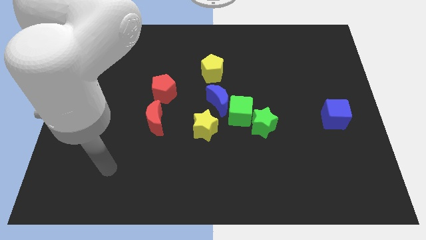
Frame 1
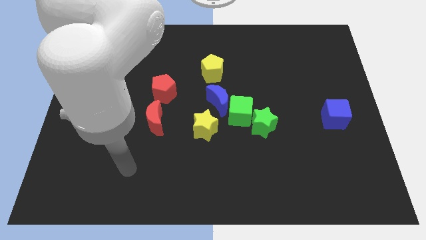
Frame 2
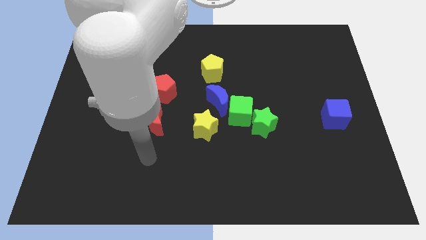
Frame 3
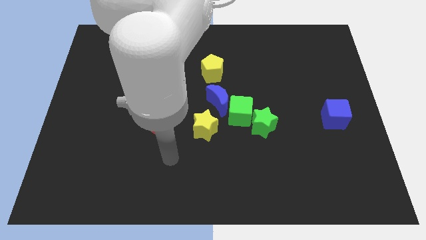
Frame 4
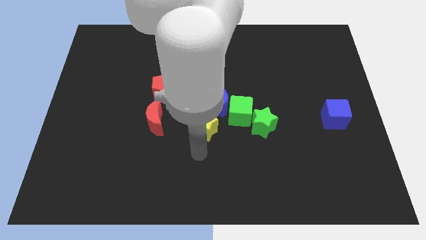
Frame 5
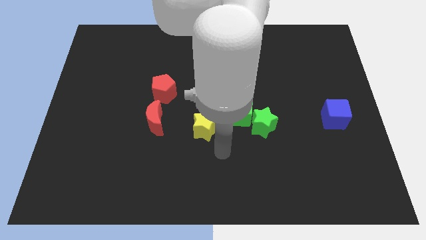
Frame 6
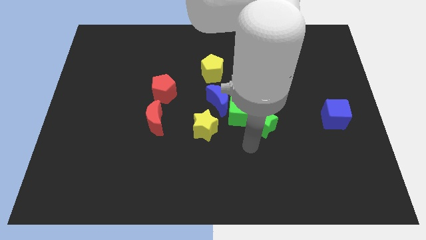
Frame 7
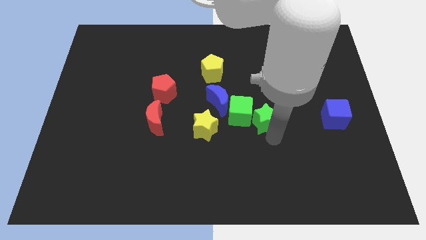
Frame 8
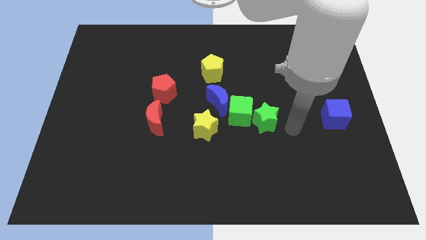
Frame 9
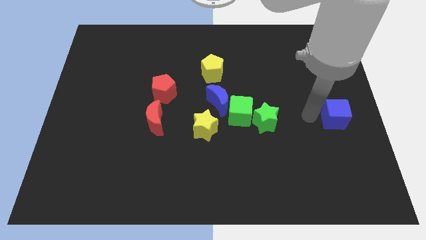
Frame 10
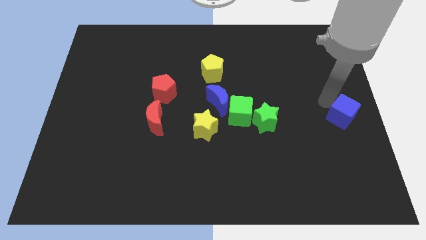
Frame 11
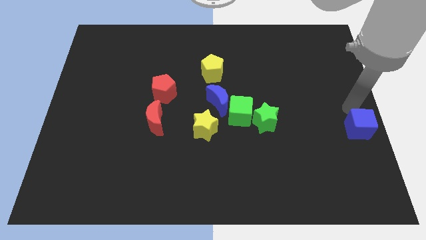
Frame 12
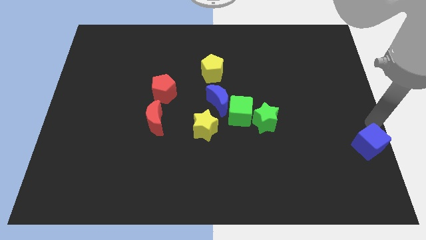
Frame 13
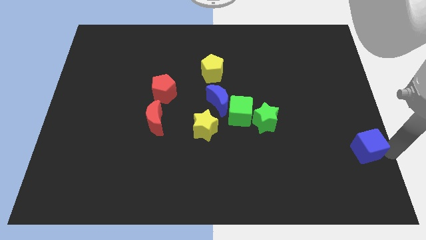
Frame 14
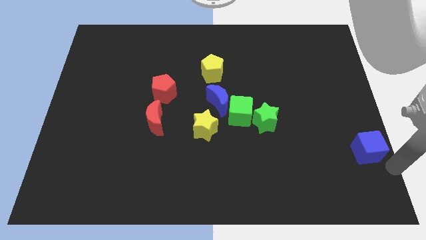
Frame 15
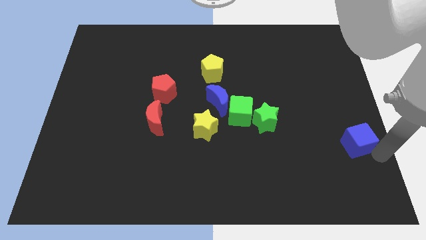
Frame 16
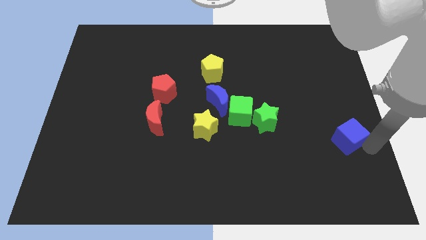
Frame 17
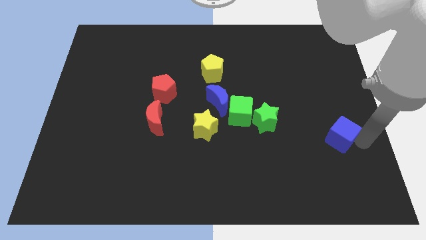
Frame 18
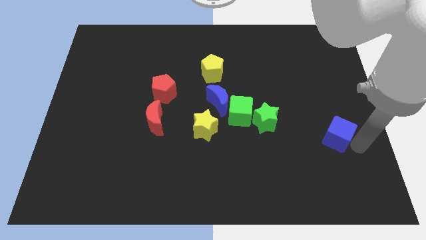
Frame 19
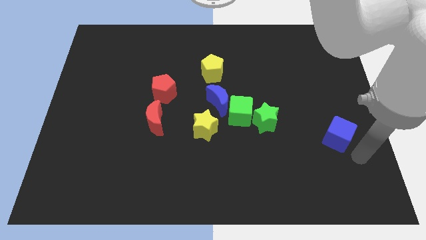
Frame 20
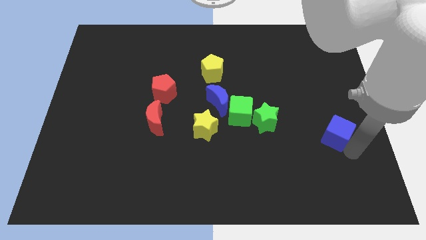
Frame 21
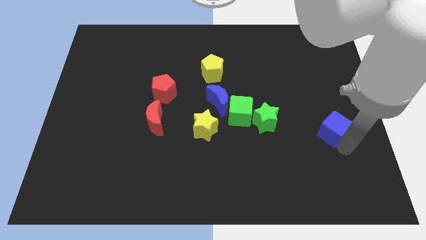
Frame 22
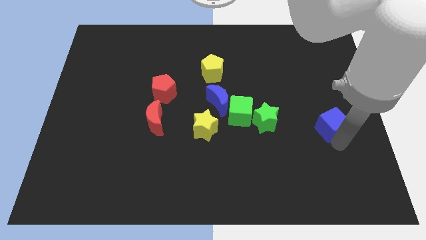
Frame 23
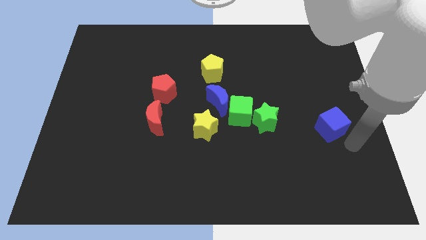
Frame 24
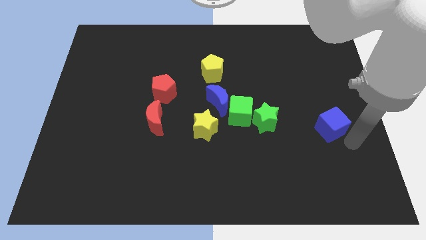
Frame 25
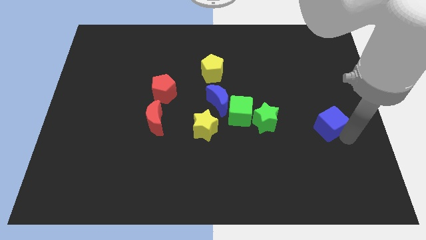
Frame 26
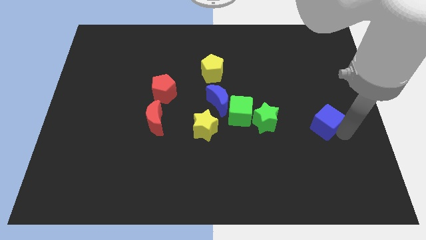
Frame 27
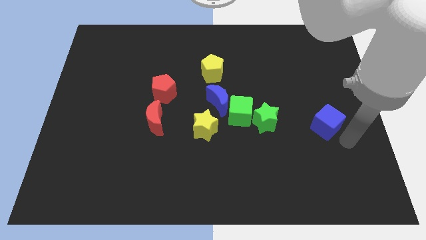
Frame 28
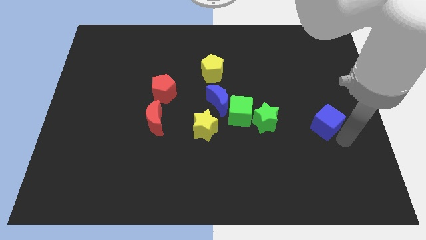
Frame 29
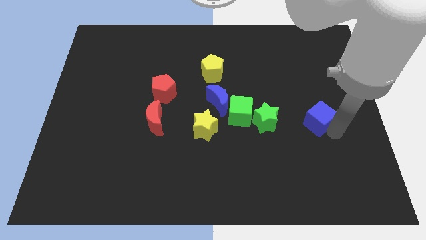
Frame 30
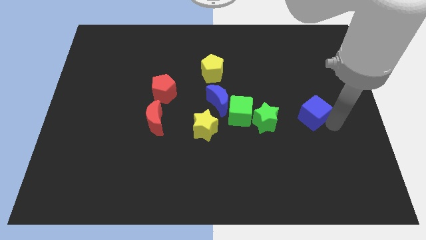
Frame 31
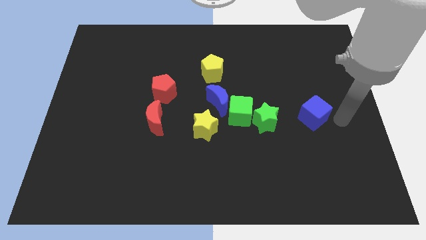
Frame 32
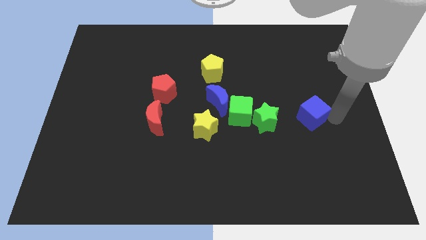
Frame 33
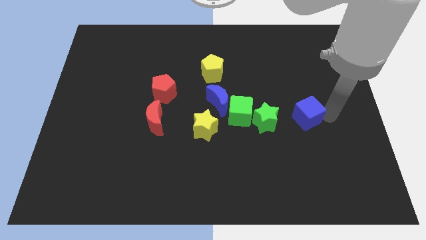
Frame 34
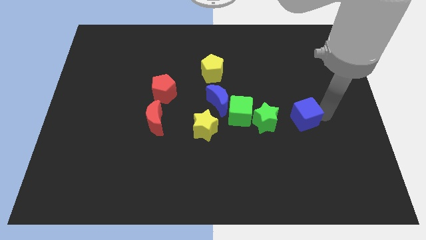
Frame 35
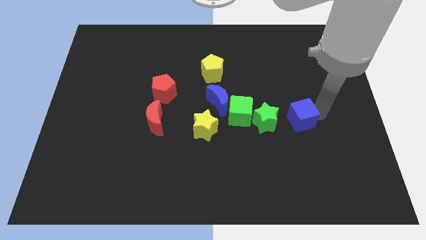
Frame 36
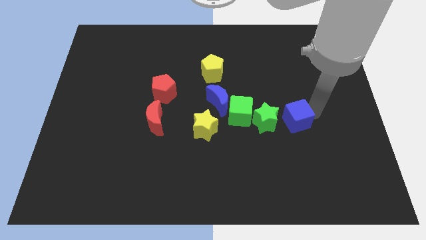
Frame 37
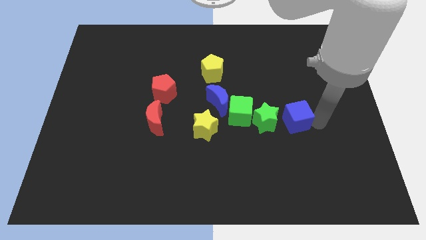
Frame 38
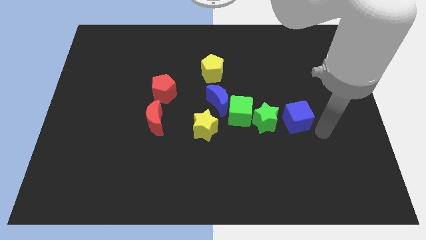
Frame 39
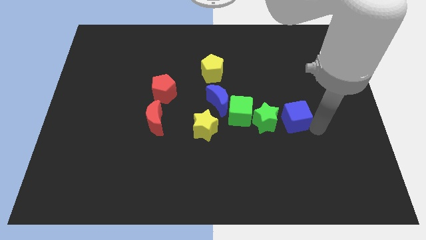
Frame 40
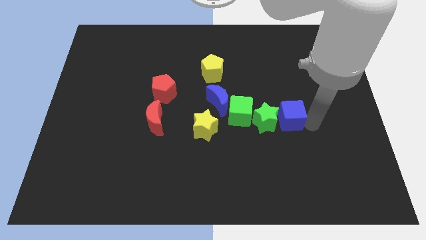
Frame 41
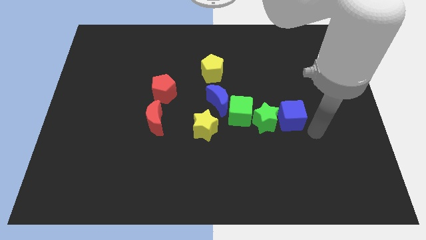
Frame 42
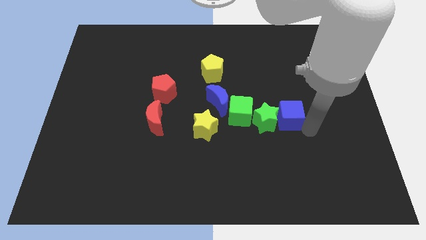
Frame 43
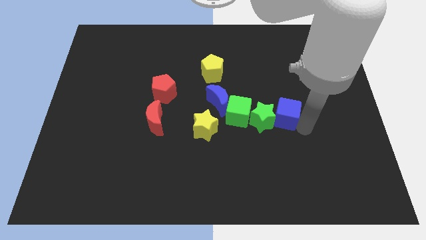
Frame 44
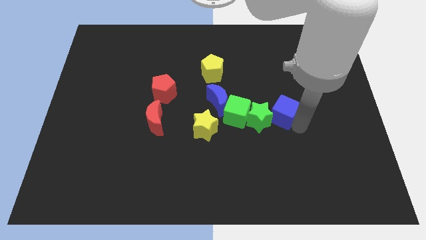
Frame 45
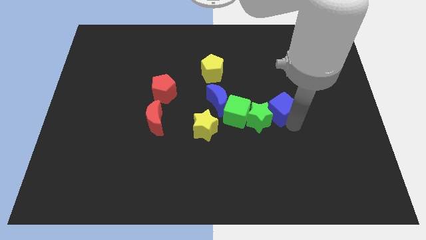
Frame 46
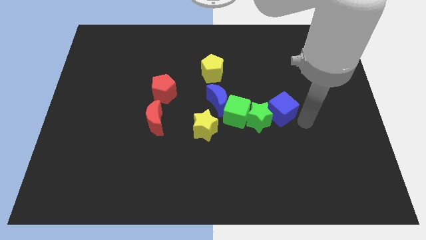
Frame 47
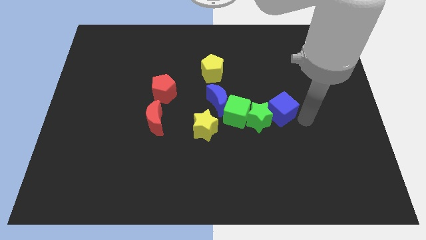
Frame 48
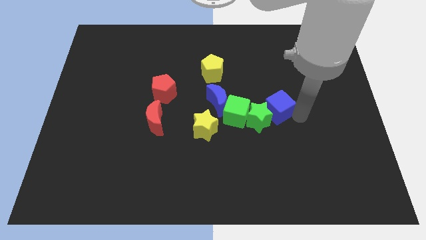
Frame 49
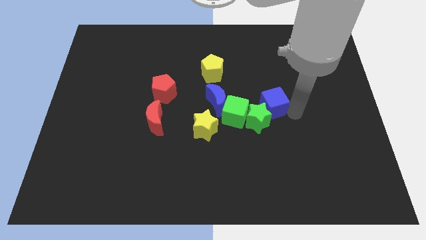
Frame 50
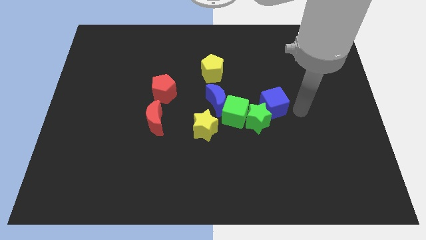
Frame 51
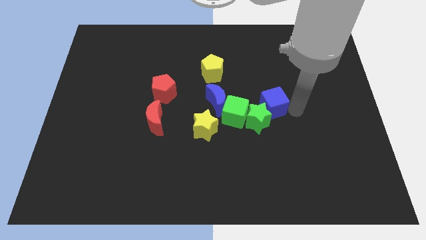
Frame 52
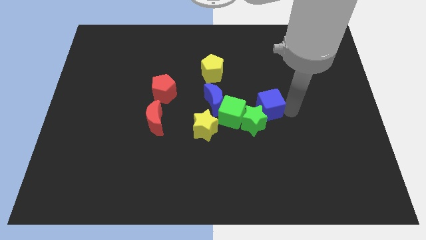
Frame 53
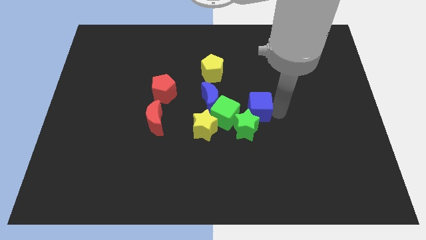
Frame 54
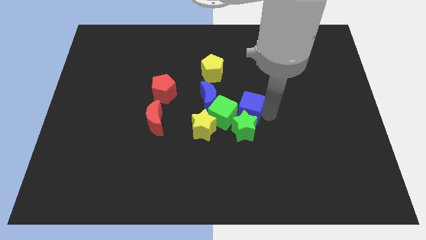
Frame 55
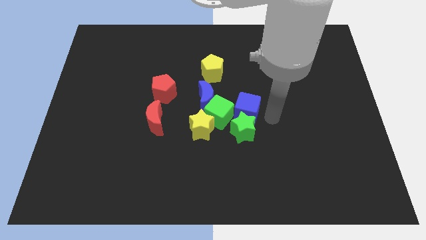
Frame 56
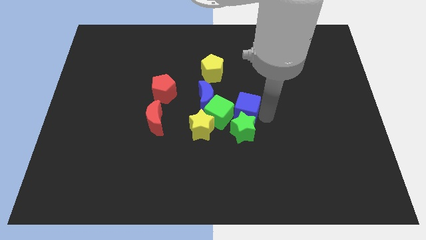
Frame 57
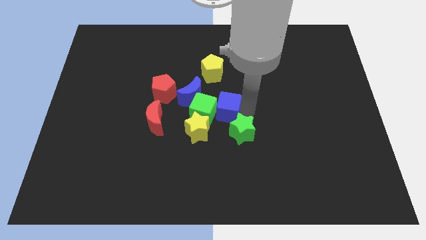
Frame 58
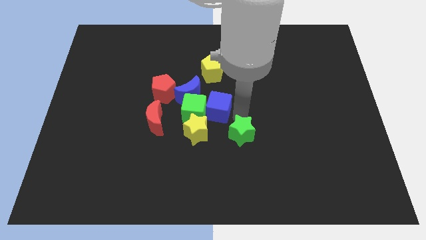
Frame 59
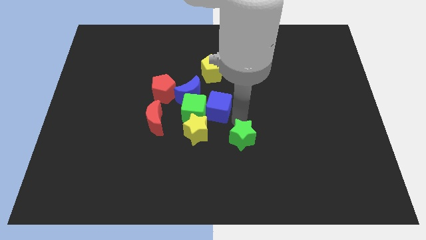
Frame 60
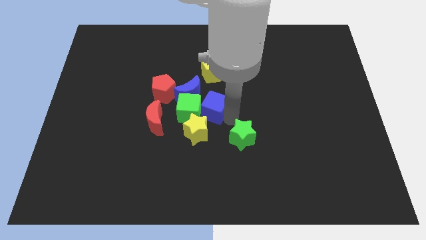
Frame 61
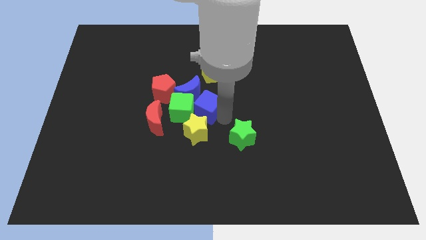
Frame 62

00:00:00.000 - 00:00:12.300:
push the blue cube towards the blue moon

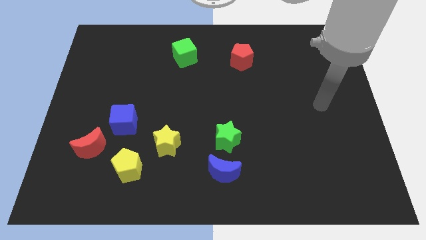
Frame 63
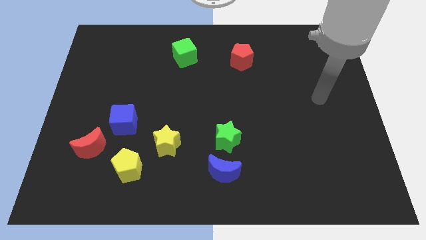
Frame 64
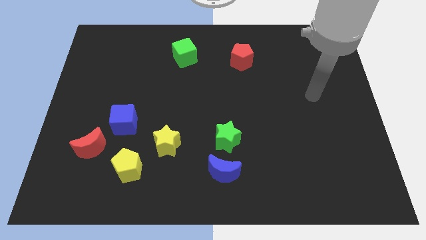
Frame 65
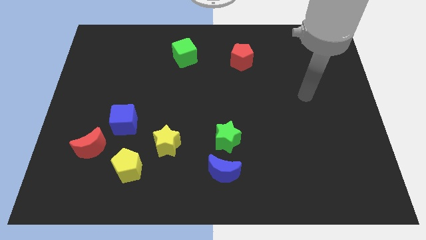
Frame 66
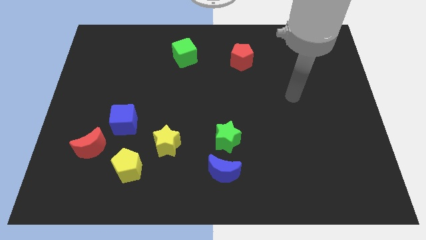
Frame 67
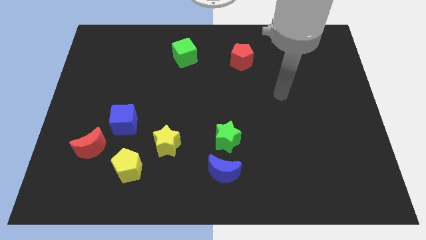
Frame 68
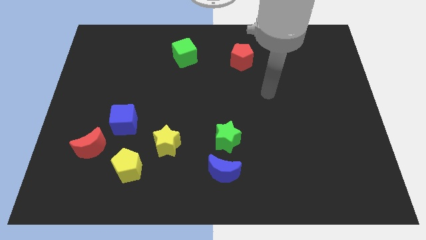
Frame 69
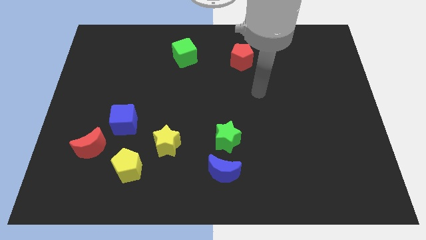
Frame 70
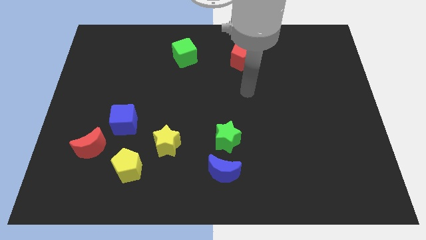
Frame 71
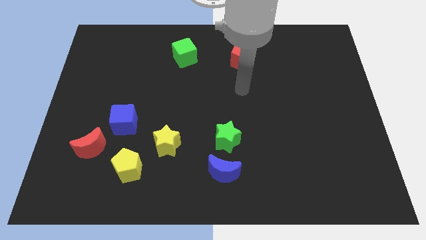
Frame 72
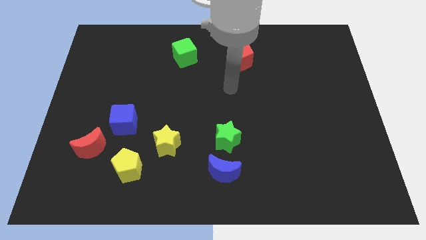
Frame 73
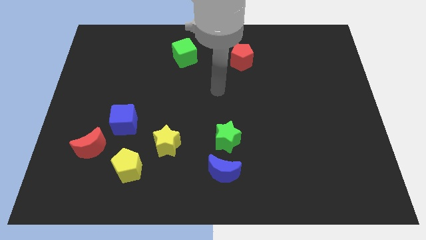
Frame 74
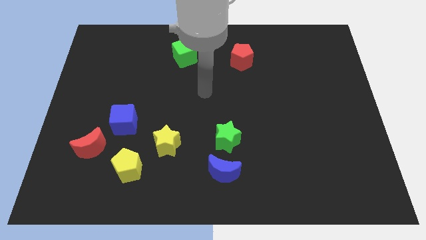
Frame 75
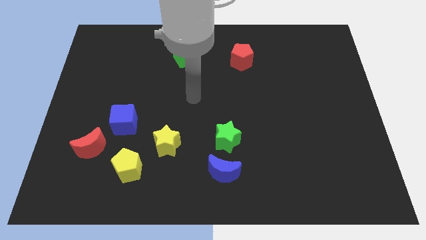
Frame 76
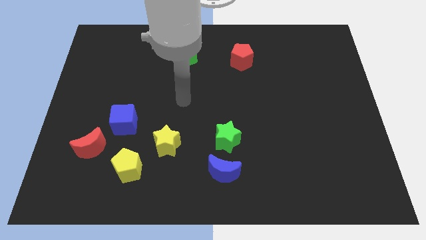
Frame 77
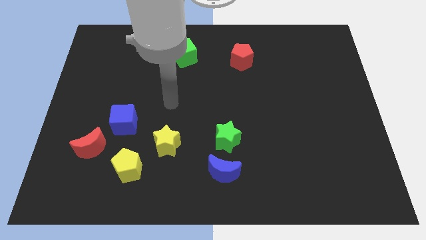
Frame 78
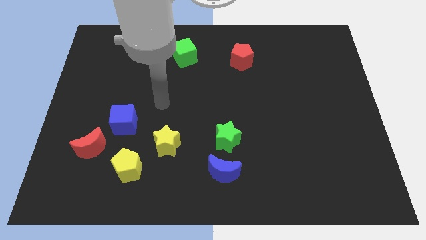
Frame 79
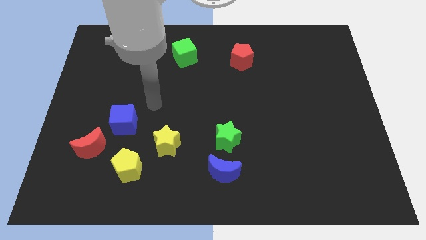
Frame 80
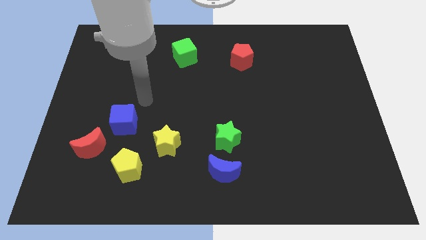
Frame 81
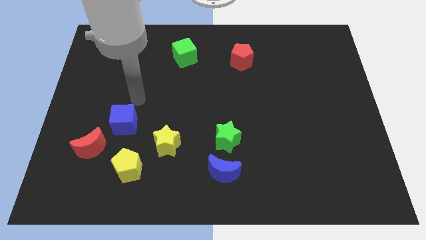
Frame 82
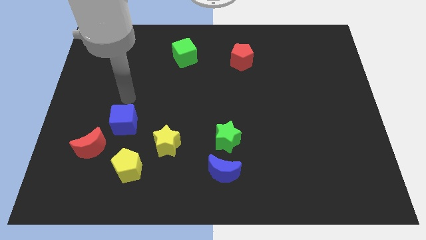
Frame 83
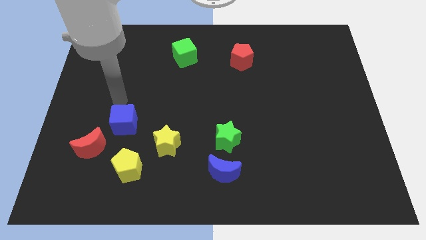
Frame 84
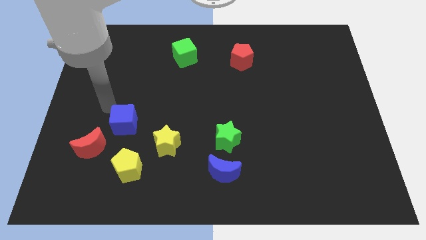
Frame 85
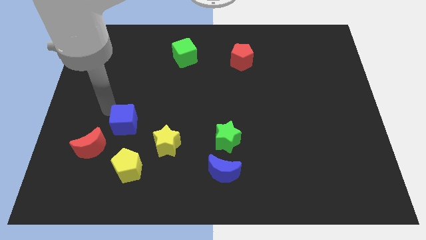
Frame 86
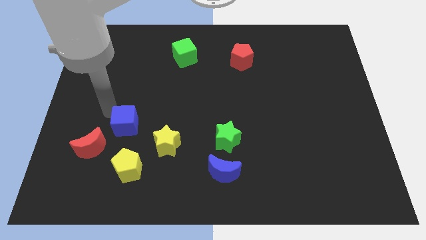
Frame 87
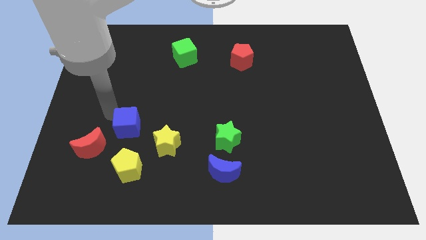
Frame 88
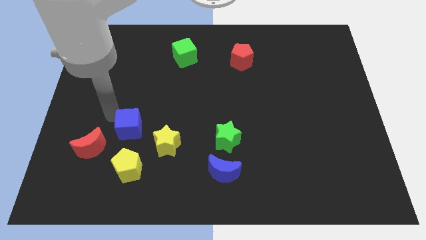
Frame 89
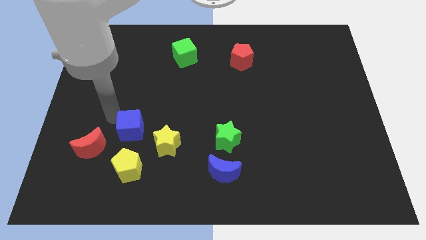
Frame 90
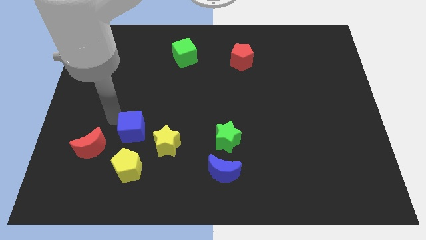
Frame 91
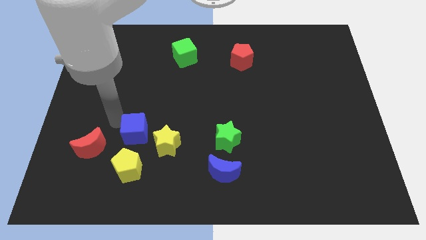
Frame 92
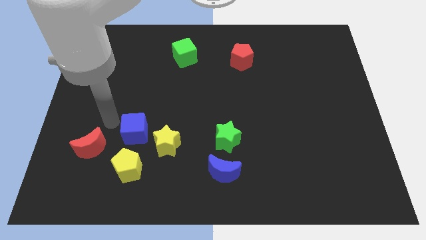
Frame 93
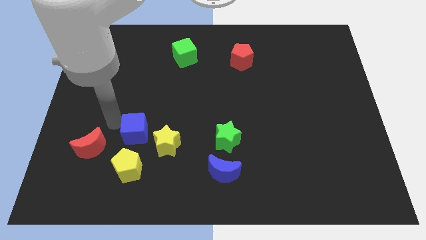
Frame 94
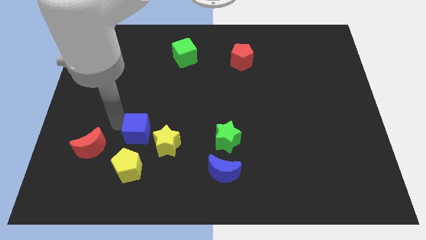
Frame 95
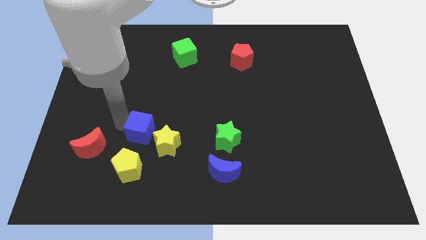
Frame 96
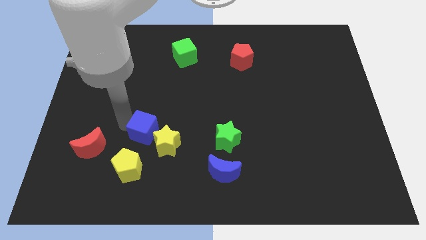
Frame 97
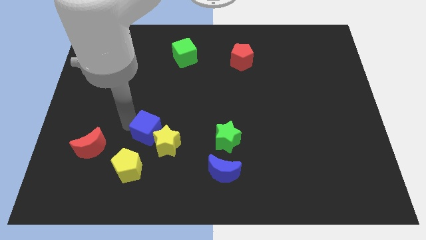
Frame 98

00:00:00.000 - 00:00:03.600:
slide the blue cube close to the yellow star
